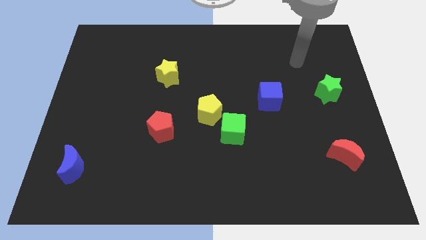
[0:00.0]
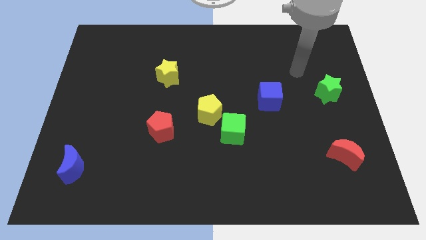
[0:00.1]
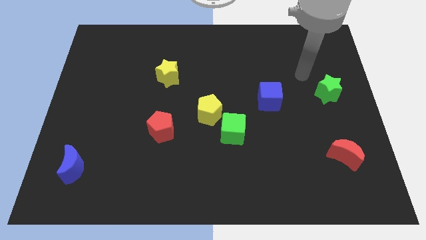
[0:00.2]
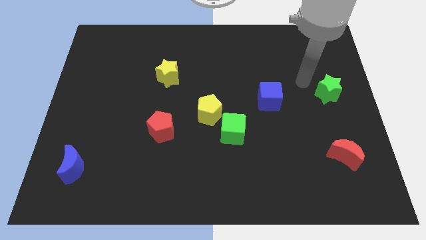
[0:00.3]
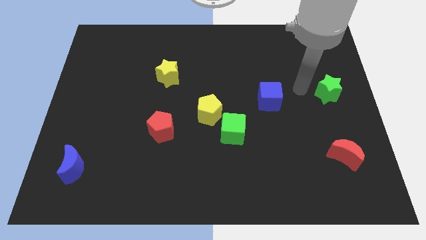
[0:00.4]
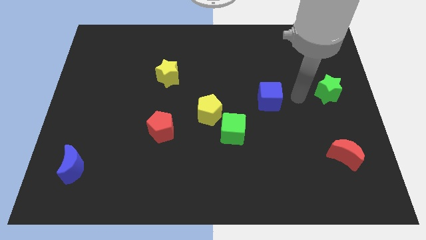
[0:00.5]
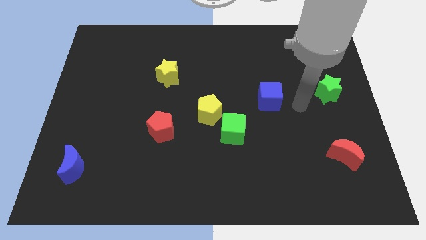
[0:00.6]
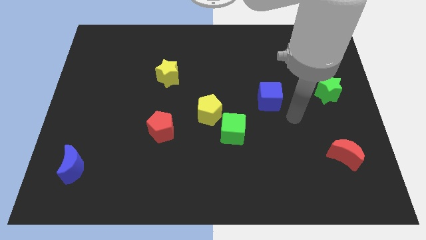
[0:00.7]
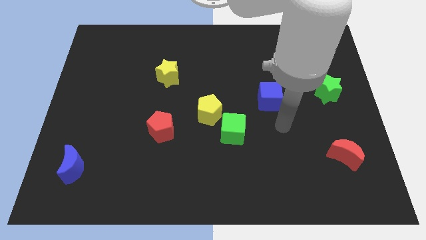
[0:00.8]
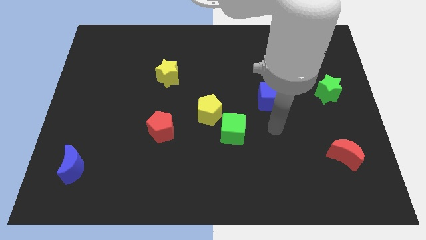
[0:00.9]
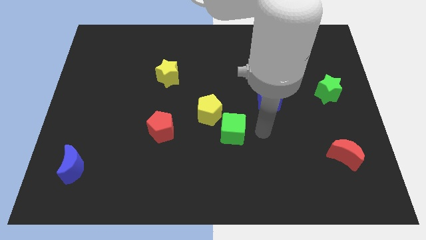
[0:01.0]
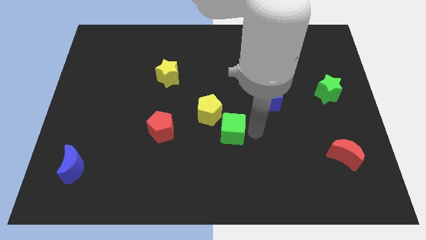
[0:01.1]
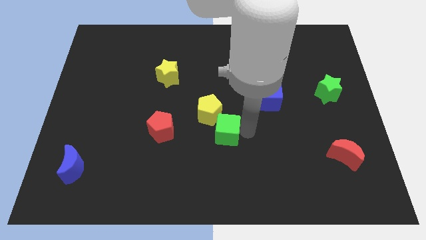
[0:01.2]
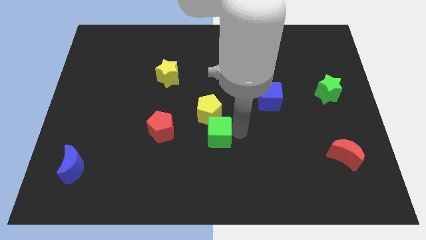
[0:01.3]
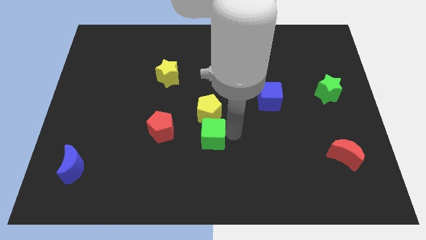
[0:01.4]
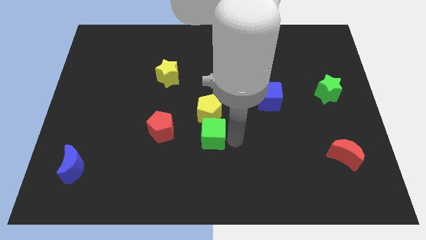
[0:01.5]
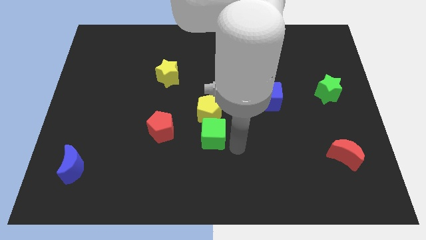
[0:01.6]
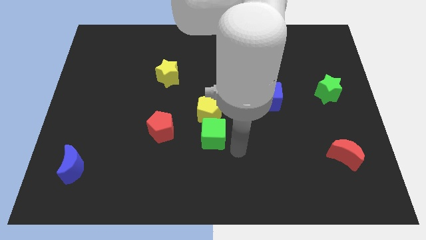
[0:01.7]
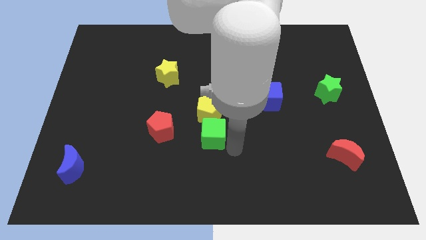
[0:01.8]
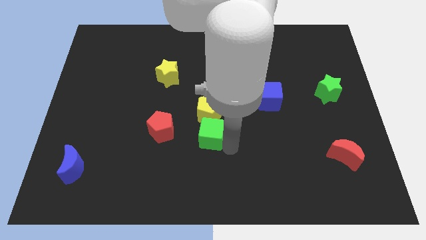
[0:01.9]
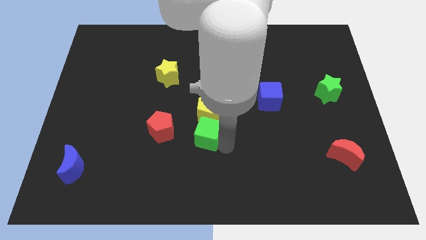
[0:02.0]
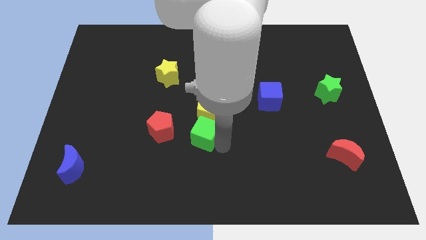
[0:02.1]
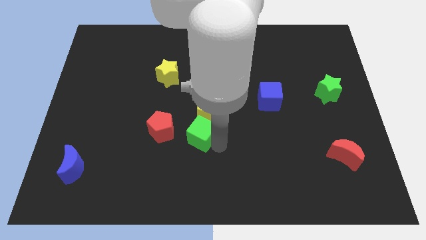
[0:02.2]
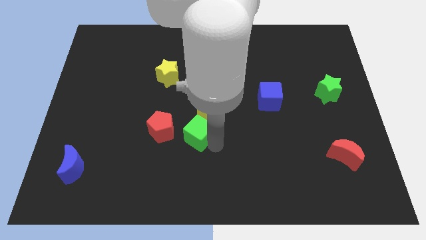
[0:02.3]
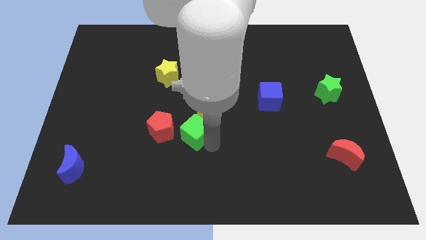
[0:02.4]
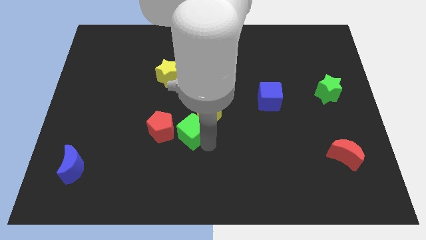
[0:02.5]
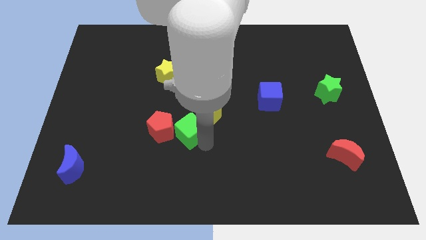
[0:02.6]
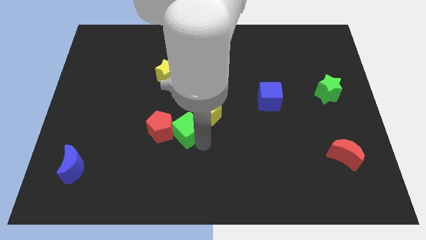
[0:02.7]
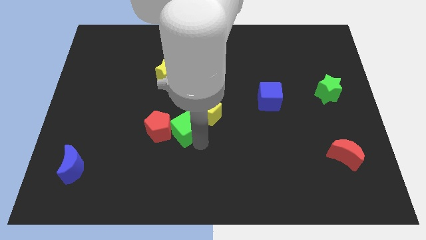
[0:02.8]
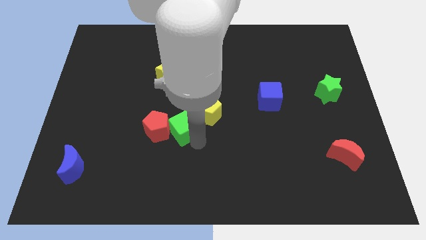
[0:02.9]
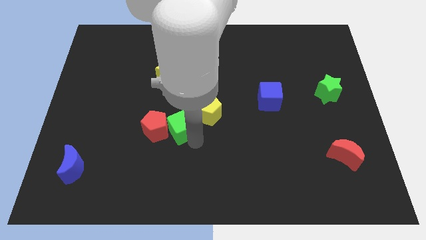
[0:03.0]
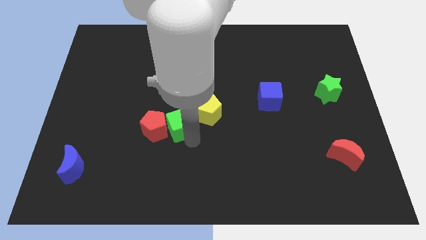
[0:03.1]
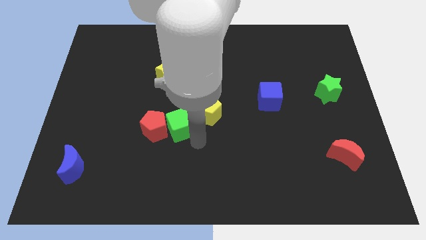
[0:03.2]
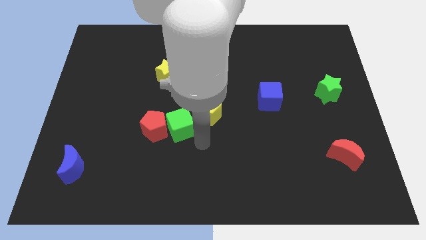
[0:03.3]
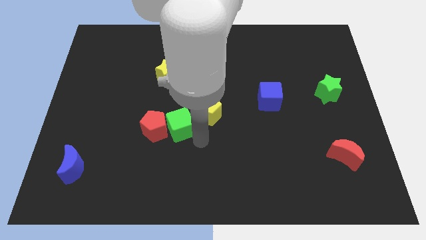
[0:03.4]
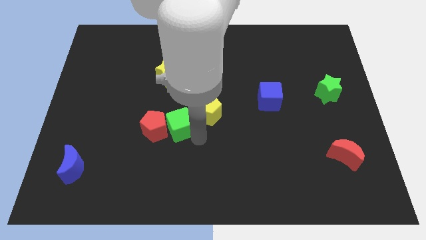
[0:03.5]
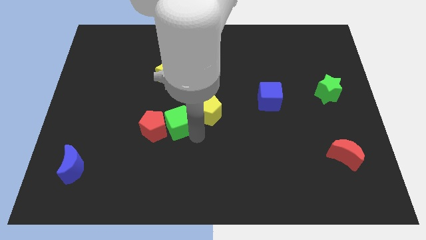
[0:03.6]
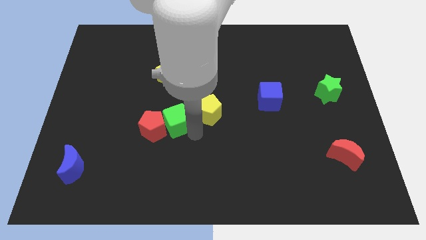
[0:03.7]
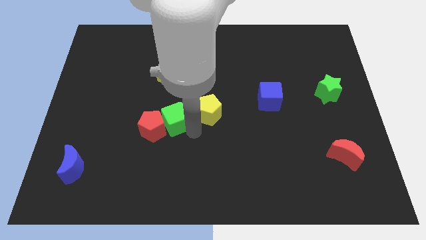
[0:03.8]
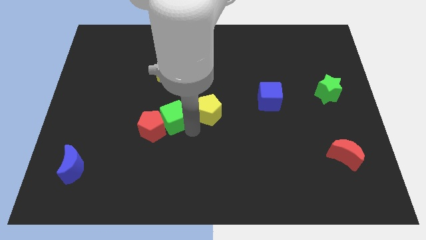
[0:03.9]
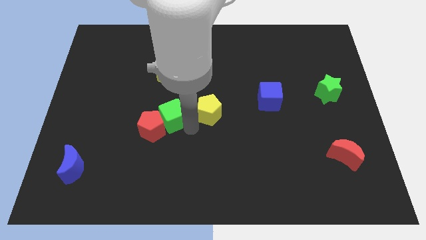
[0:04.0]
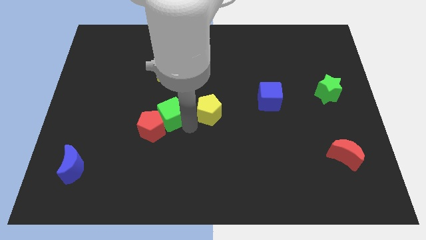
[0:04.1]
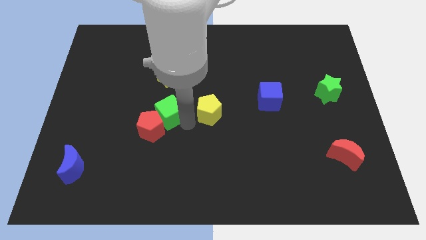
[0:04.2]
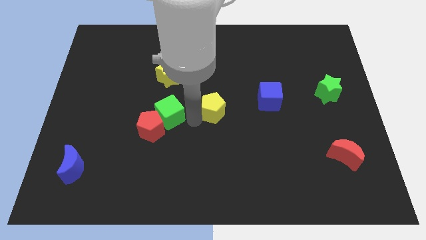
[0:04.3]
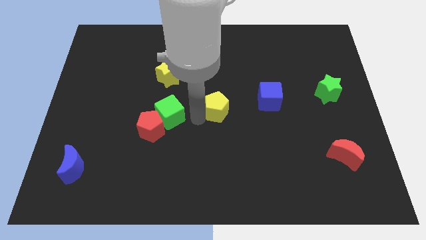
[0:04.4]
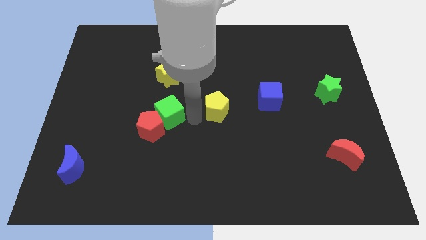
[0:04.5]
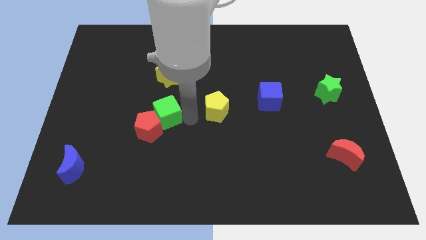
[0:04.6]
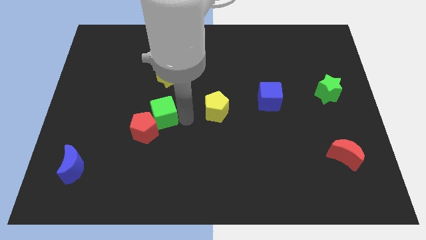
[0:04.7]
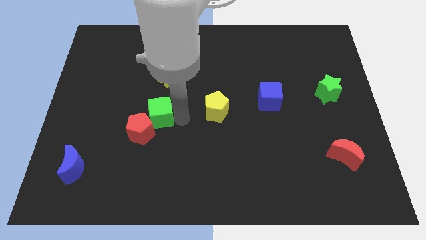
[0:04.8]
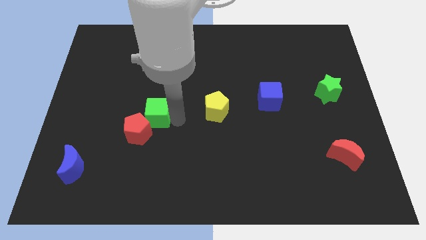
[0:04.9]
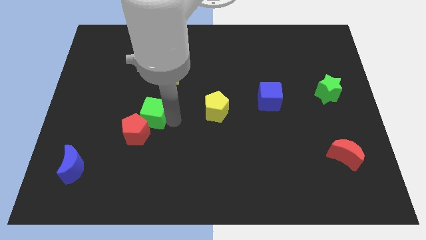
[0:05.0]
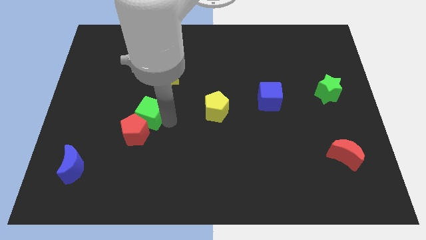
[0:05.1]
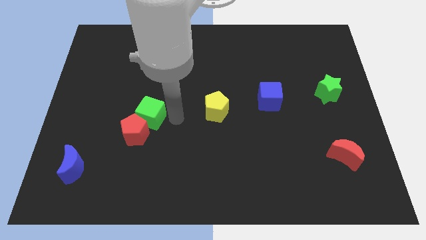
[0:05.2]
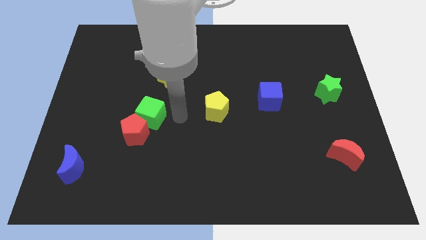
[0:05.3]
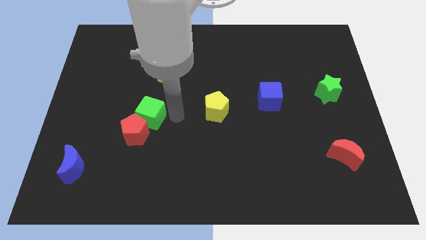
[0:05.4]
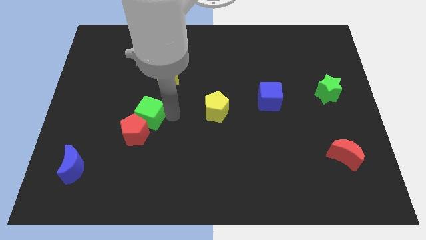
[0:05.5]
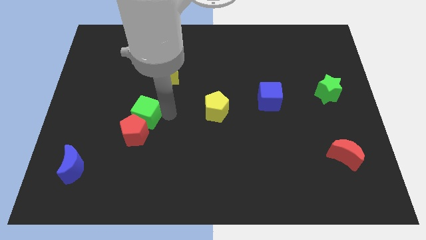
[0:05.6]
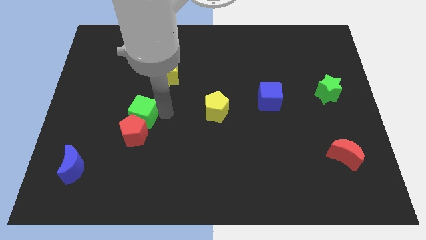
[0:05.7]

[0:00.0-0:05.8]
push the green cube to the top left side of the red pentagon

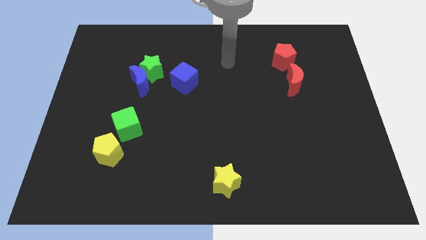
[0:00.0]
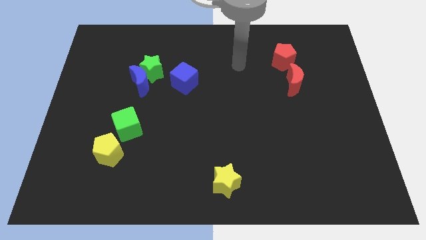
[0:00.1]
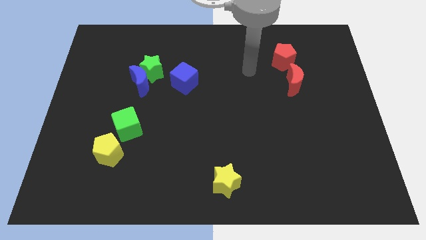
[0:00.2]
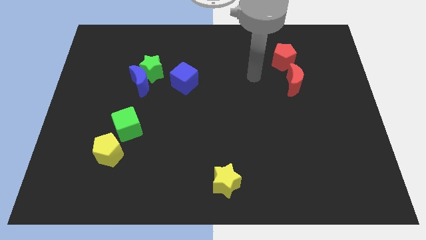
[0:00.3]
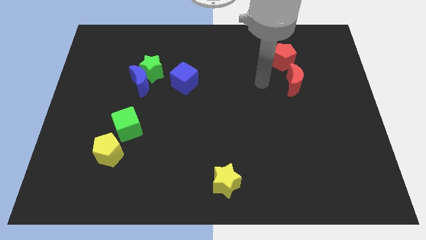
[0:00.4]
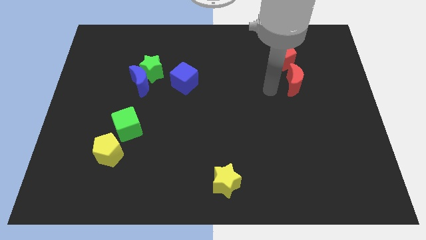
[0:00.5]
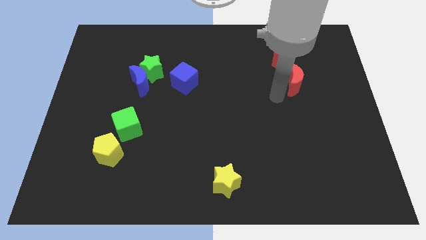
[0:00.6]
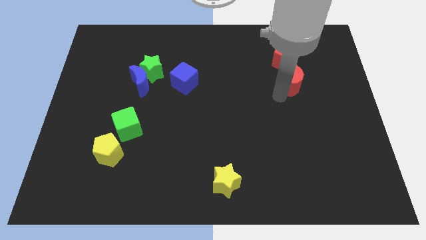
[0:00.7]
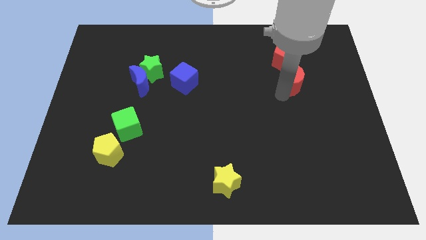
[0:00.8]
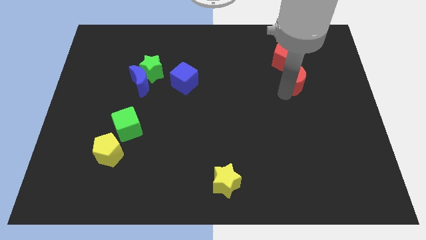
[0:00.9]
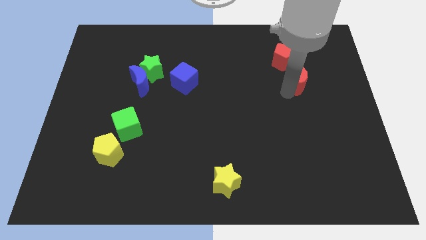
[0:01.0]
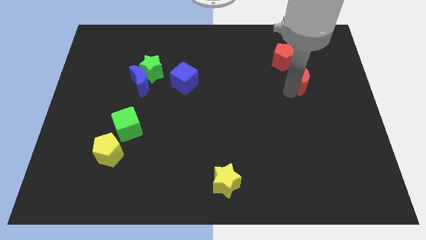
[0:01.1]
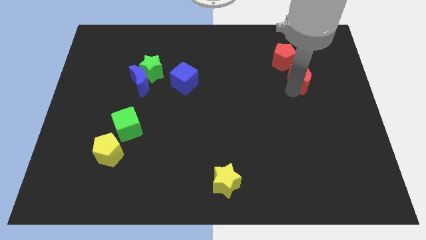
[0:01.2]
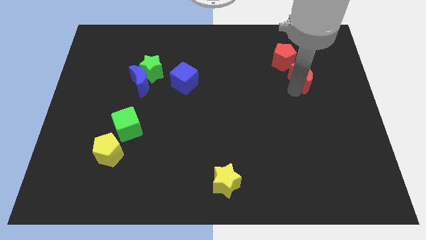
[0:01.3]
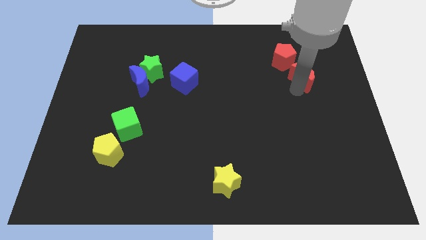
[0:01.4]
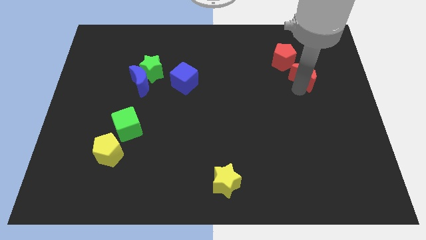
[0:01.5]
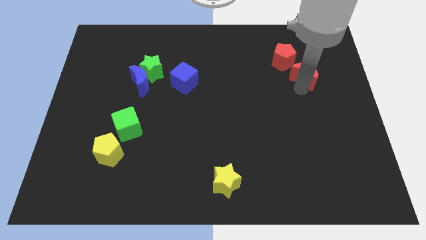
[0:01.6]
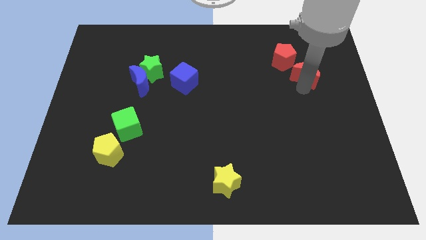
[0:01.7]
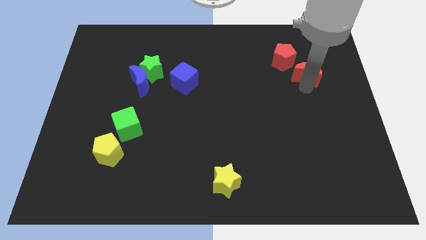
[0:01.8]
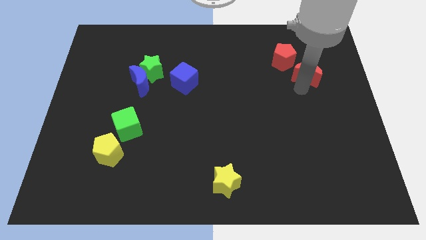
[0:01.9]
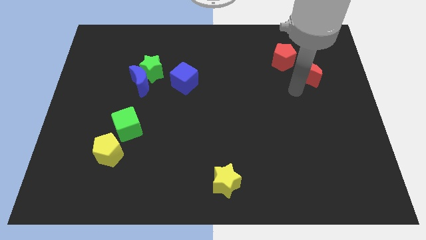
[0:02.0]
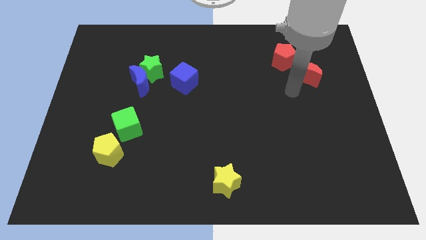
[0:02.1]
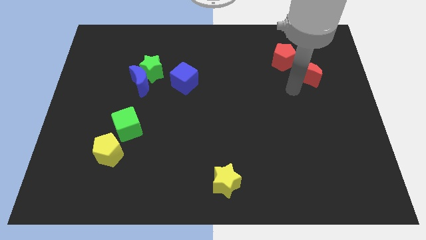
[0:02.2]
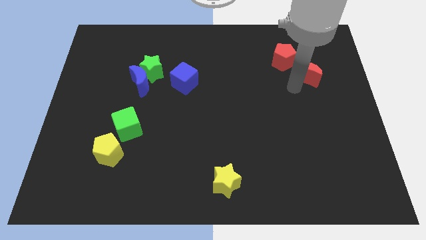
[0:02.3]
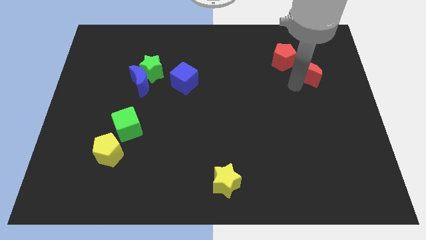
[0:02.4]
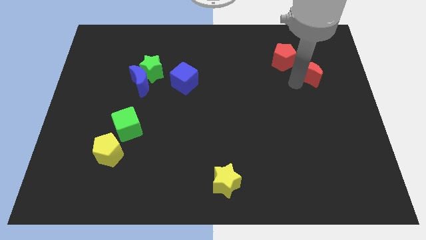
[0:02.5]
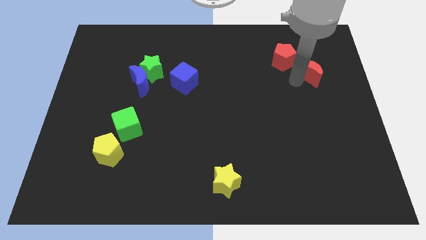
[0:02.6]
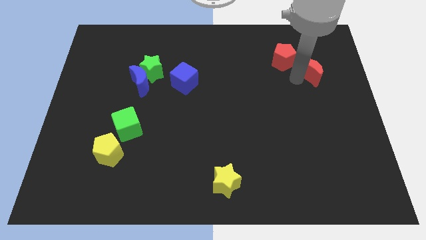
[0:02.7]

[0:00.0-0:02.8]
move the red moon right of the red pentagon
